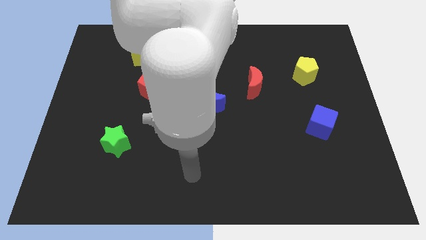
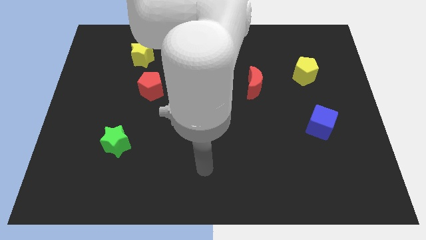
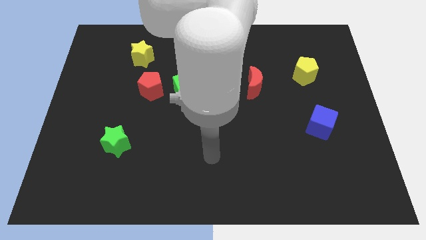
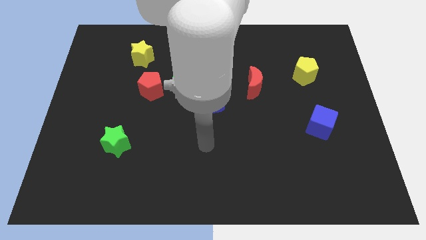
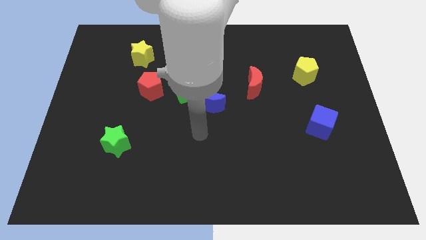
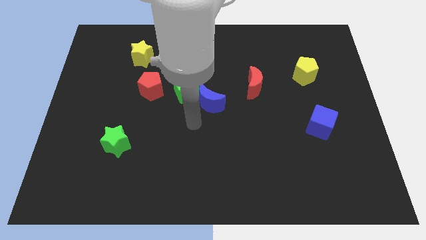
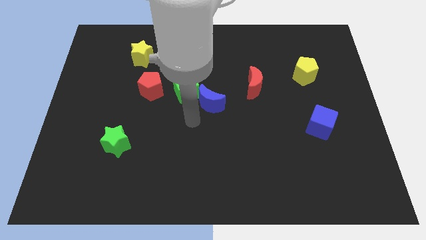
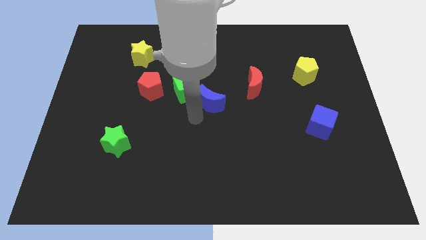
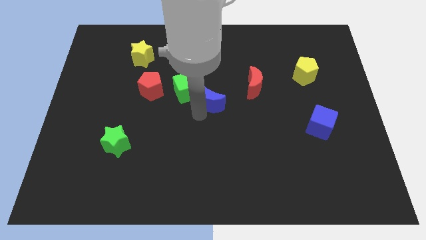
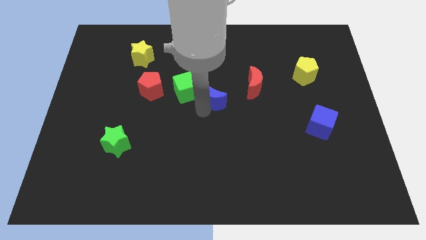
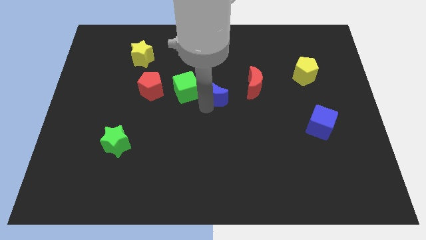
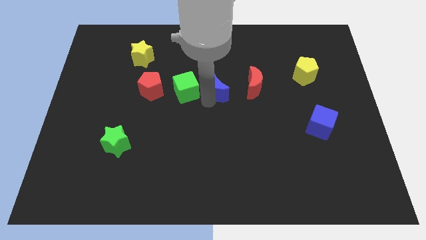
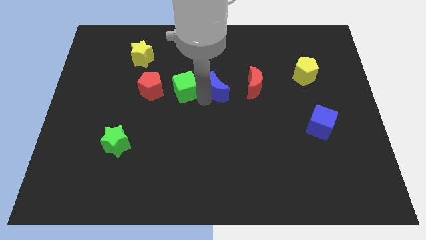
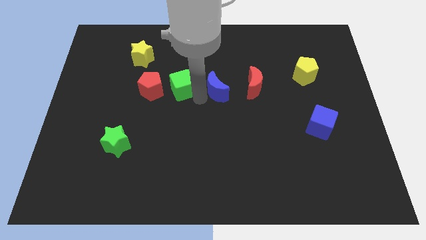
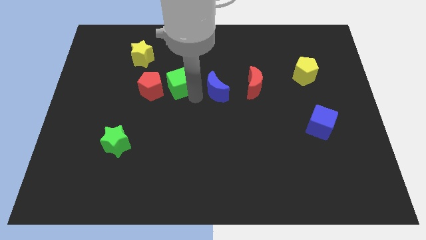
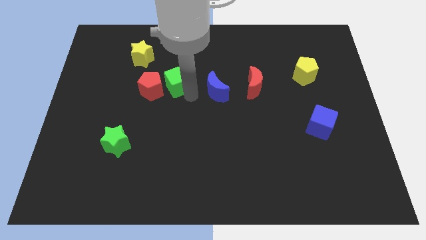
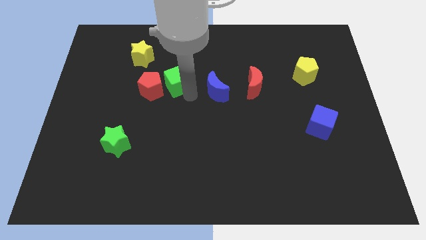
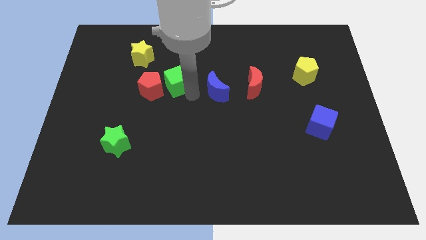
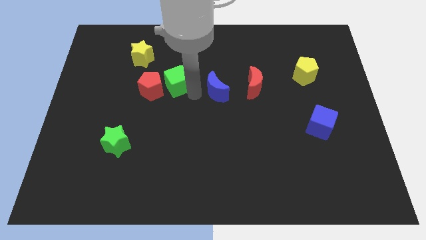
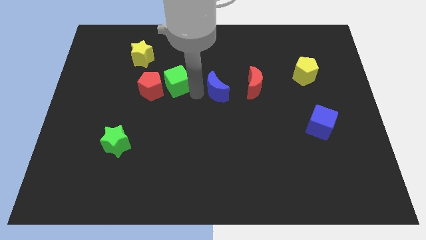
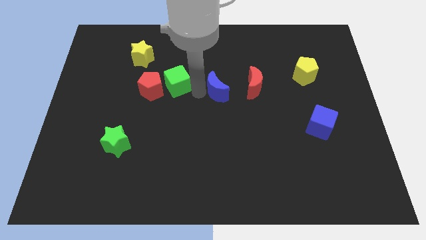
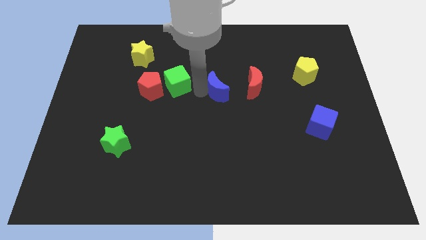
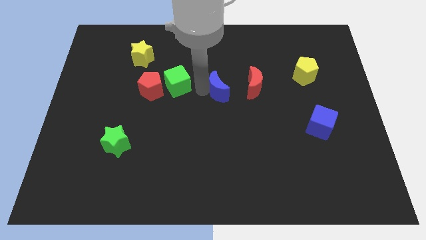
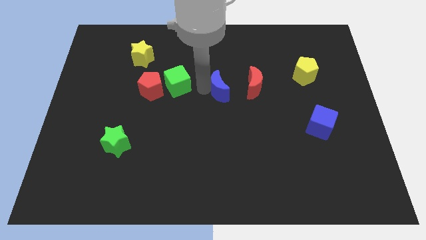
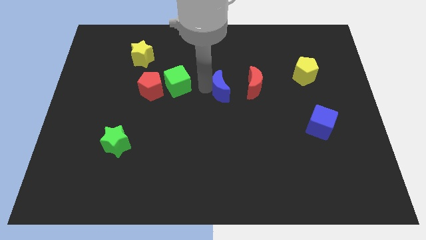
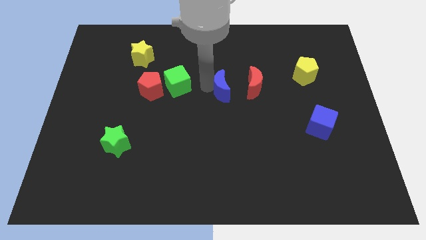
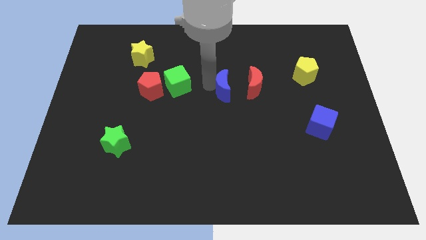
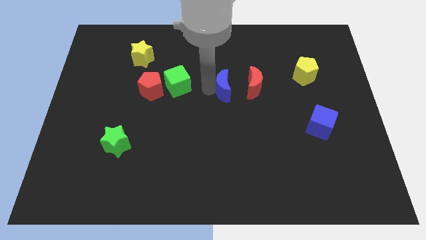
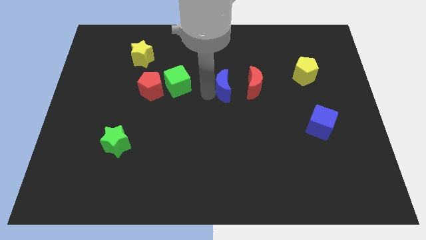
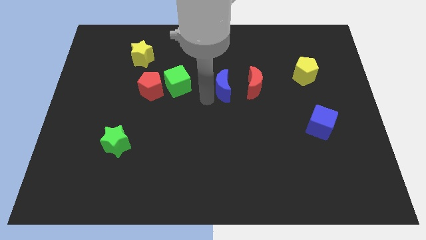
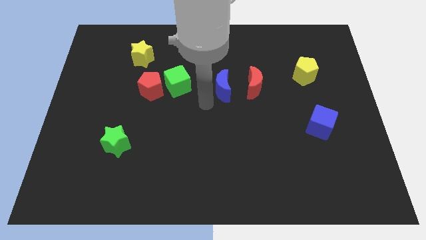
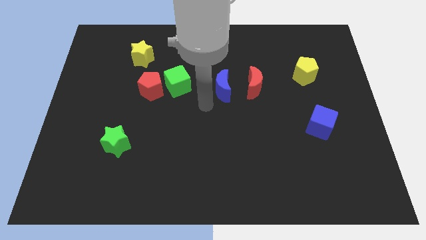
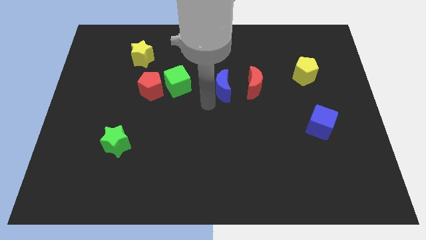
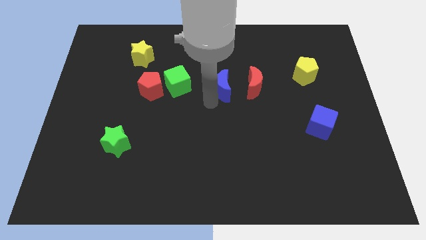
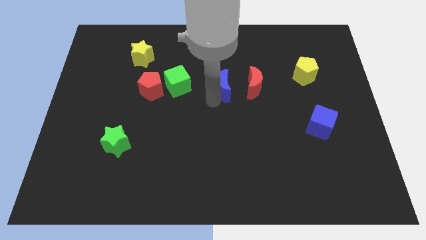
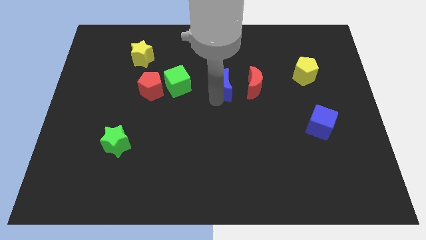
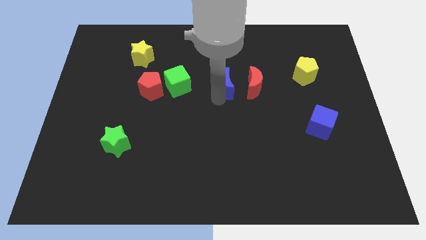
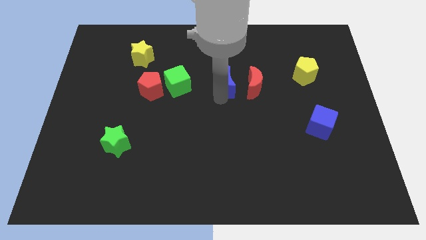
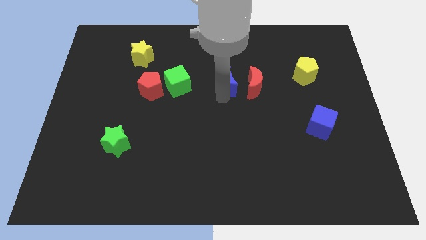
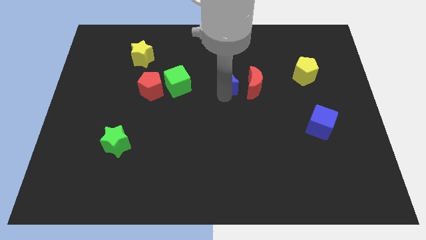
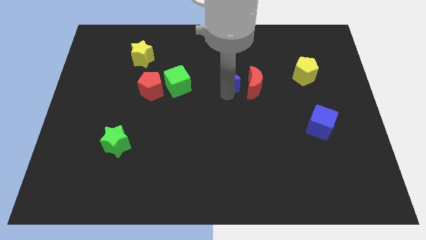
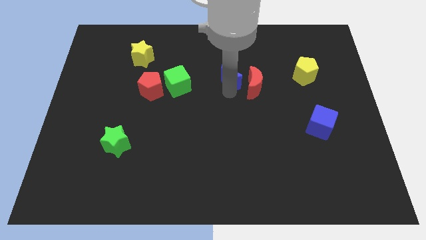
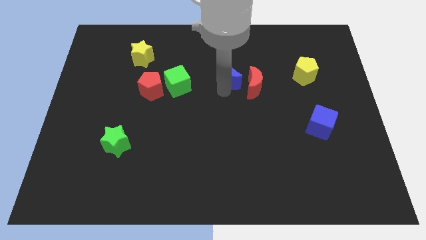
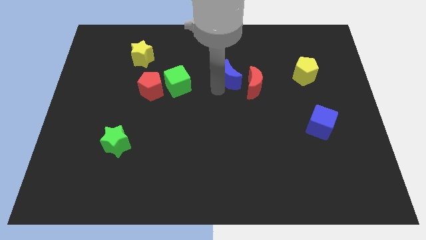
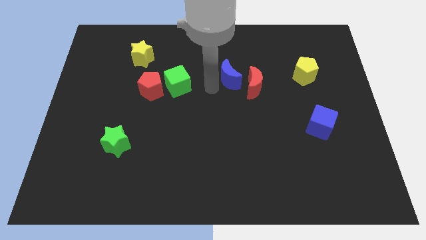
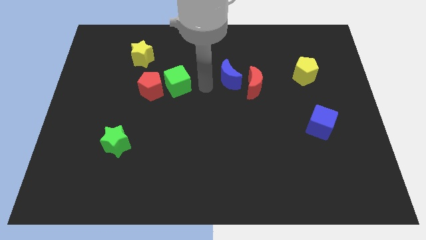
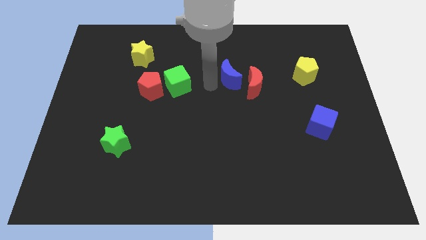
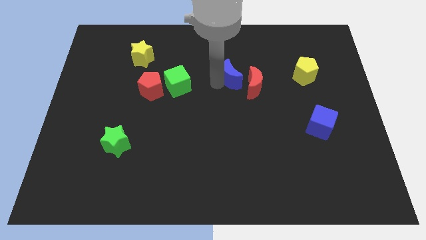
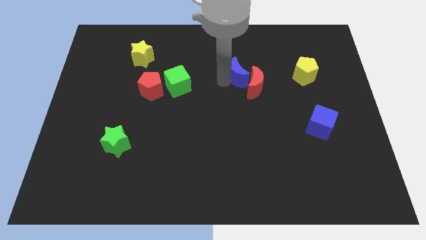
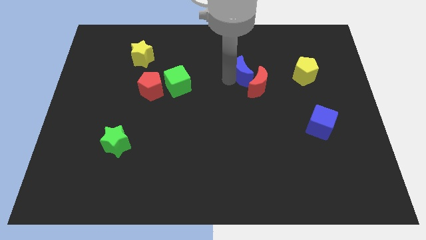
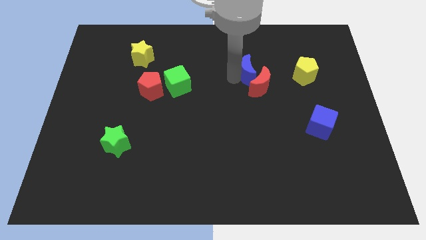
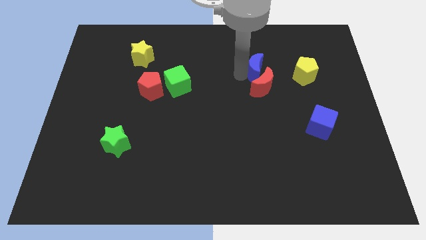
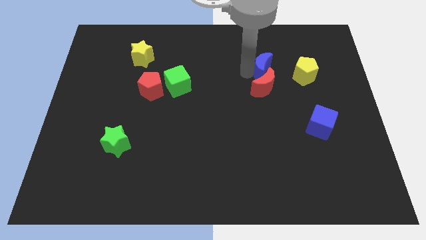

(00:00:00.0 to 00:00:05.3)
put the blue moon diagonally up and to the right of the red moon
